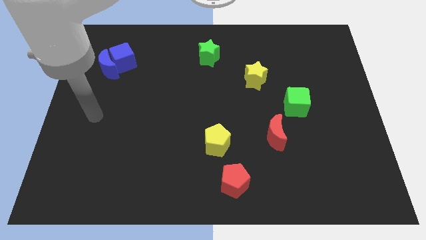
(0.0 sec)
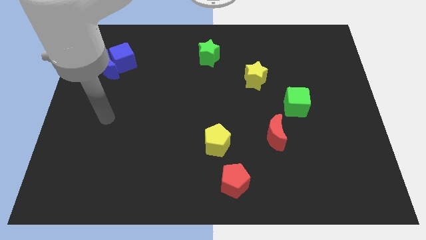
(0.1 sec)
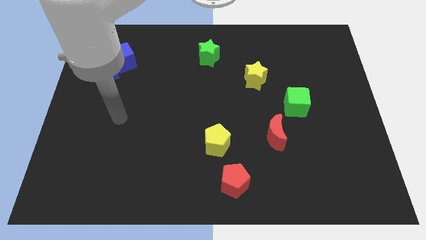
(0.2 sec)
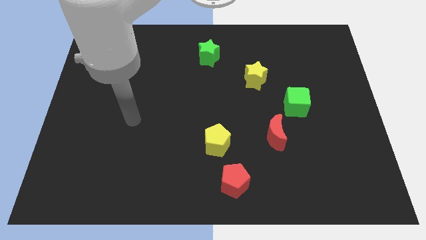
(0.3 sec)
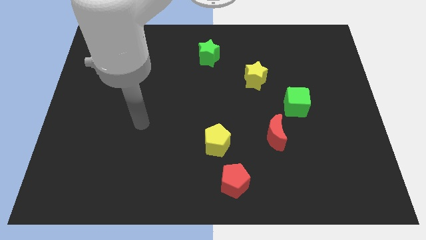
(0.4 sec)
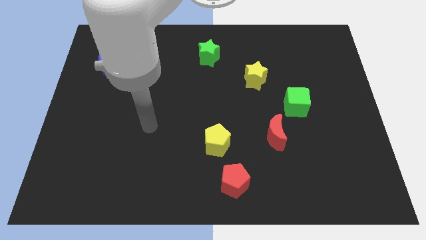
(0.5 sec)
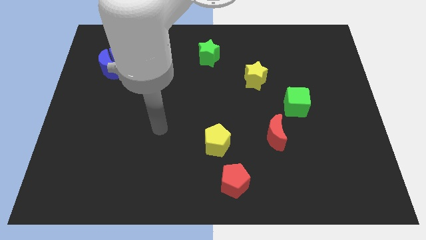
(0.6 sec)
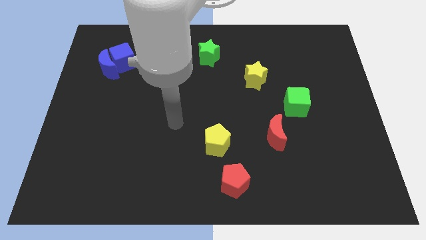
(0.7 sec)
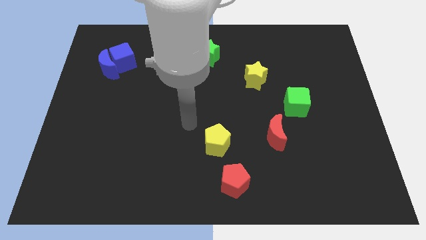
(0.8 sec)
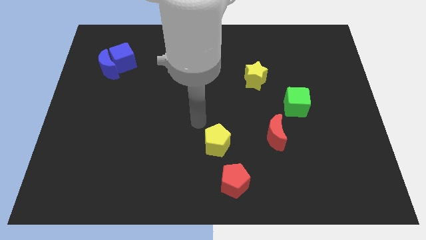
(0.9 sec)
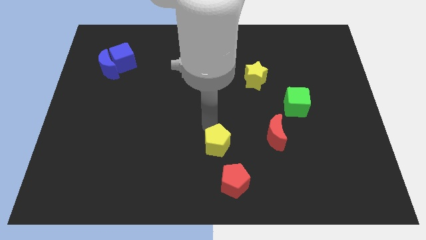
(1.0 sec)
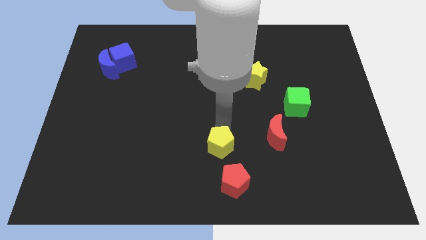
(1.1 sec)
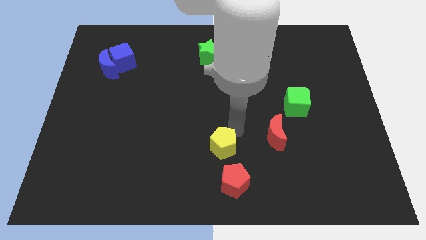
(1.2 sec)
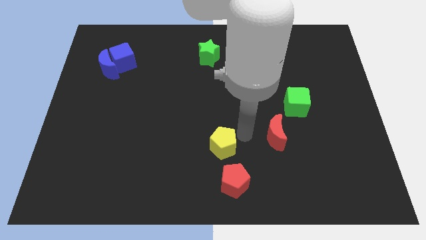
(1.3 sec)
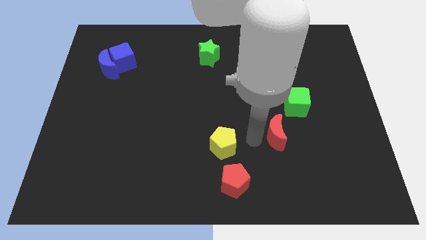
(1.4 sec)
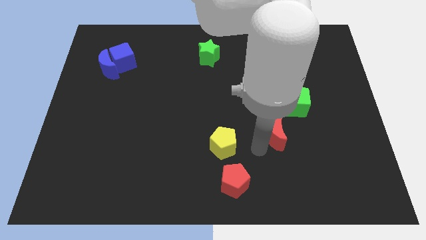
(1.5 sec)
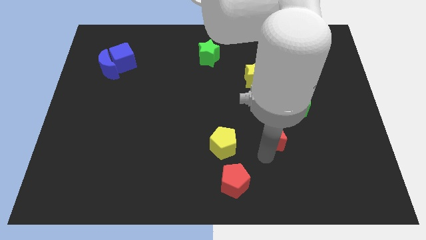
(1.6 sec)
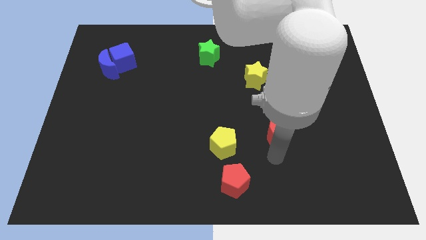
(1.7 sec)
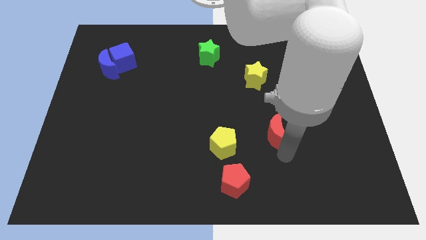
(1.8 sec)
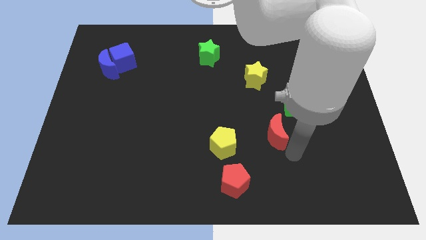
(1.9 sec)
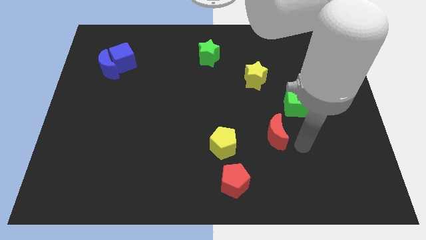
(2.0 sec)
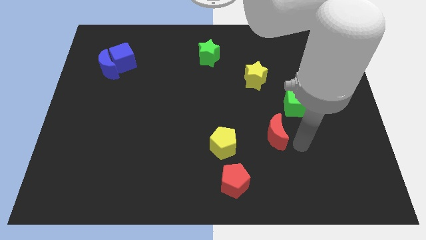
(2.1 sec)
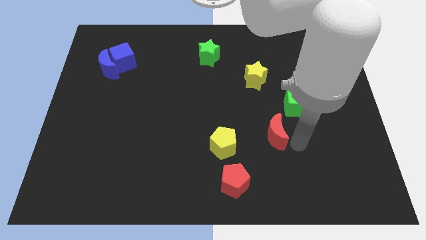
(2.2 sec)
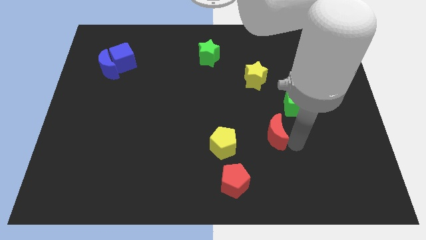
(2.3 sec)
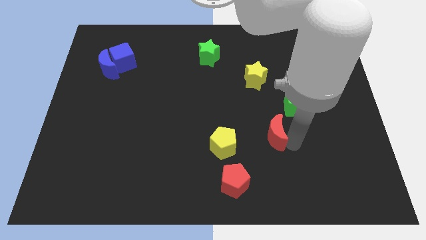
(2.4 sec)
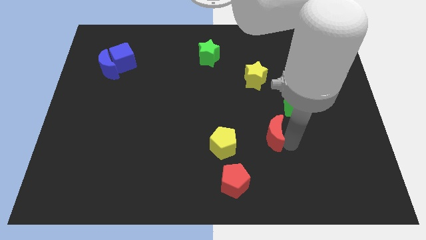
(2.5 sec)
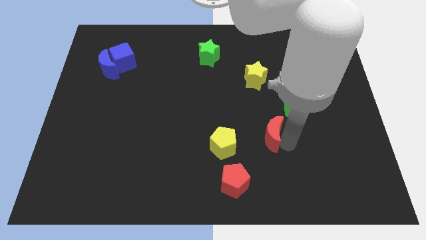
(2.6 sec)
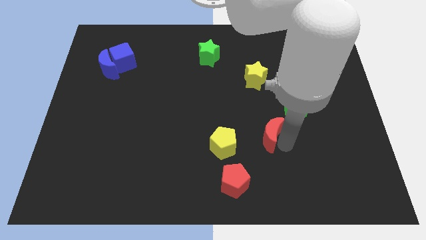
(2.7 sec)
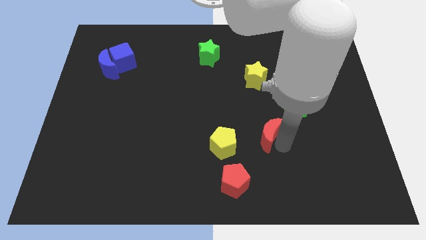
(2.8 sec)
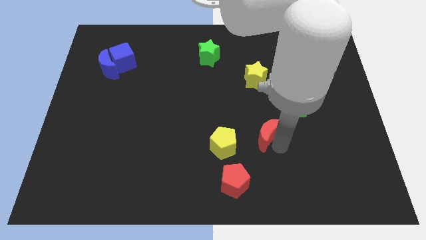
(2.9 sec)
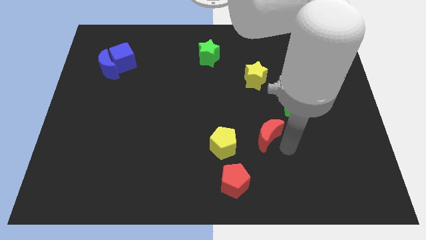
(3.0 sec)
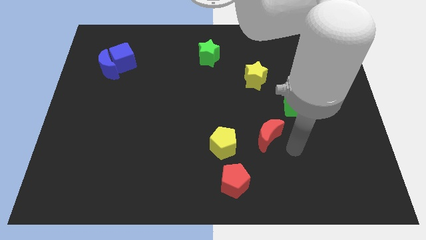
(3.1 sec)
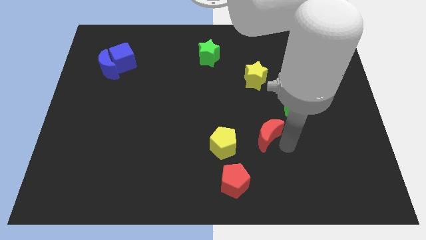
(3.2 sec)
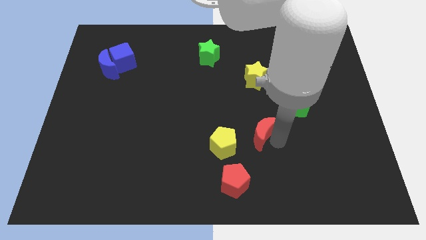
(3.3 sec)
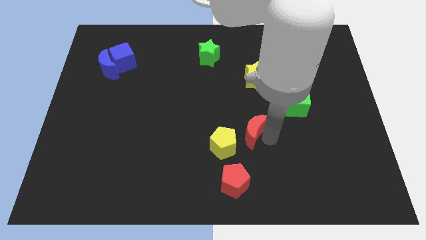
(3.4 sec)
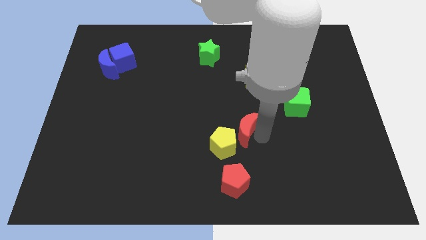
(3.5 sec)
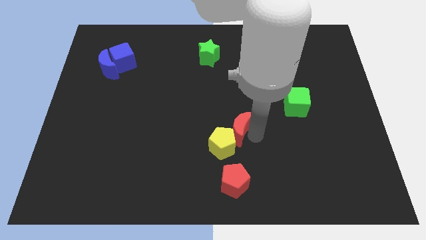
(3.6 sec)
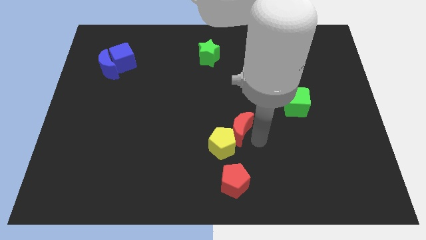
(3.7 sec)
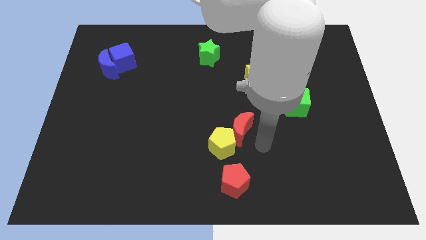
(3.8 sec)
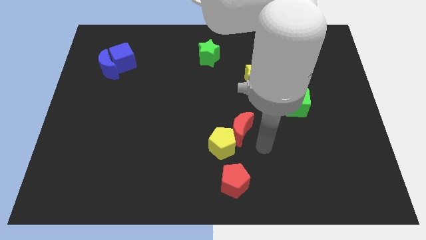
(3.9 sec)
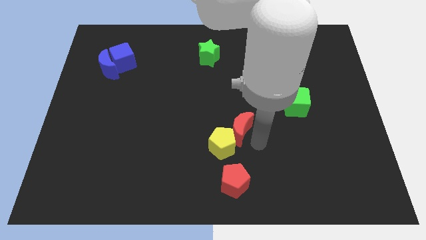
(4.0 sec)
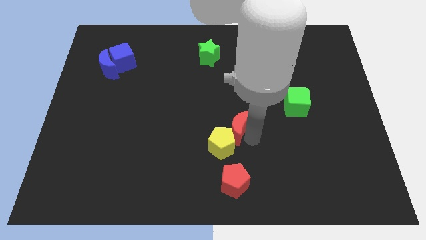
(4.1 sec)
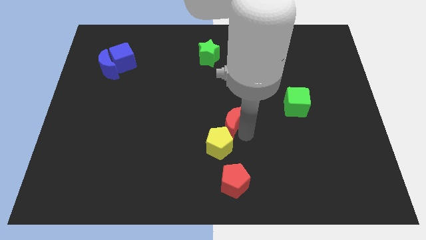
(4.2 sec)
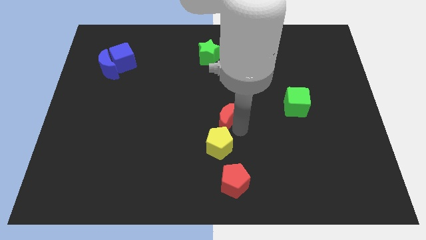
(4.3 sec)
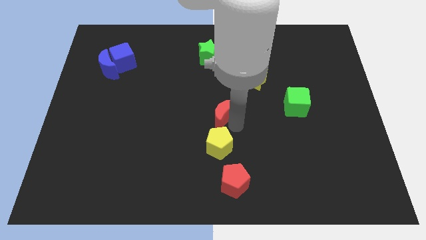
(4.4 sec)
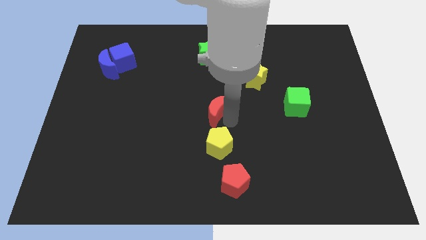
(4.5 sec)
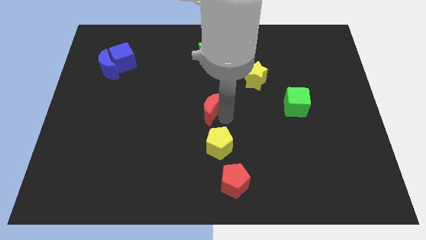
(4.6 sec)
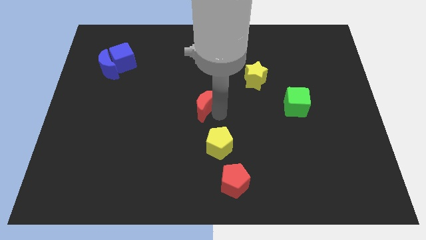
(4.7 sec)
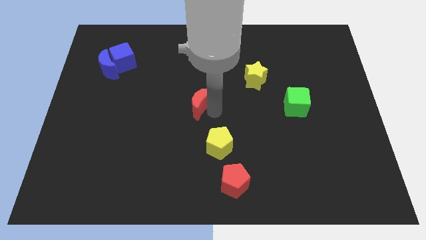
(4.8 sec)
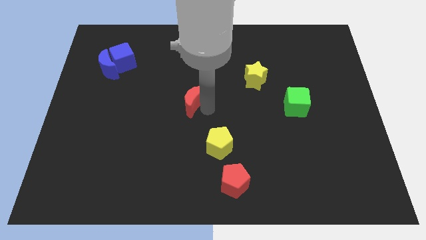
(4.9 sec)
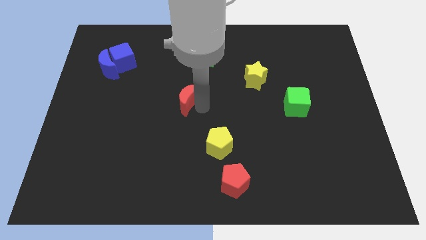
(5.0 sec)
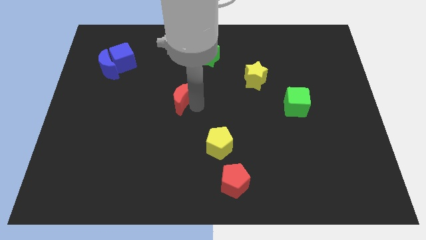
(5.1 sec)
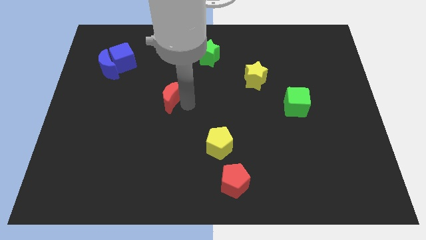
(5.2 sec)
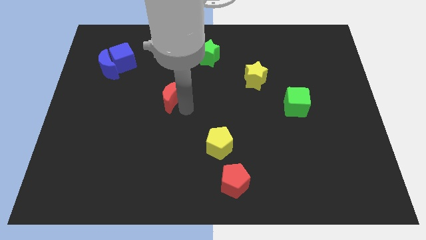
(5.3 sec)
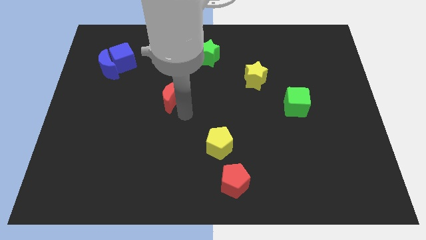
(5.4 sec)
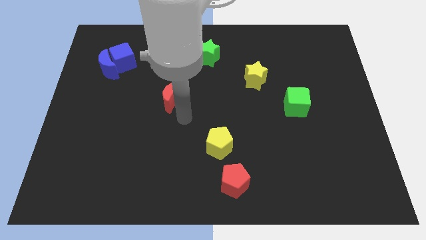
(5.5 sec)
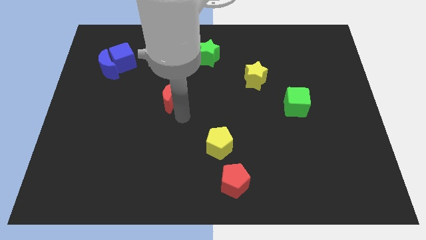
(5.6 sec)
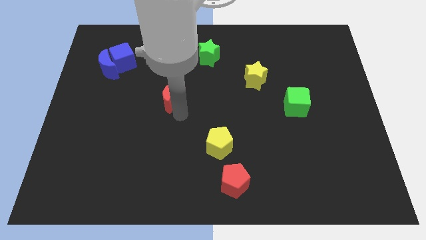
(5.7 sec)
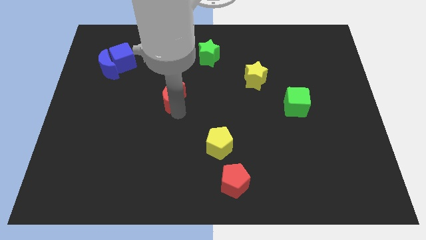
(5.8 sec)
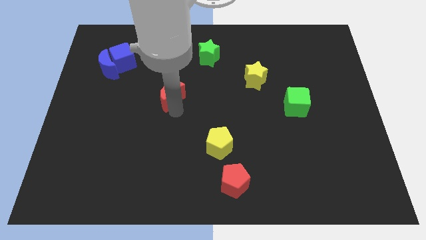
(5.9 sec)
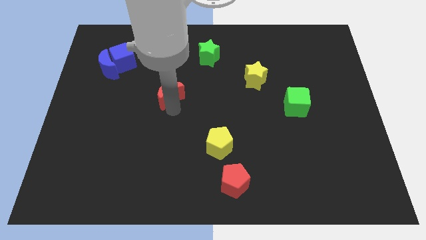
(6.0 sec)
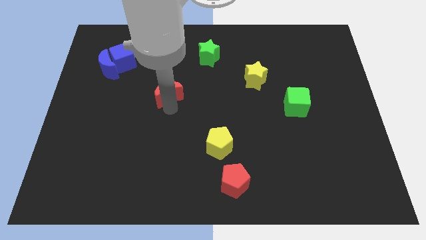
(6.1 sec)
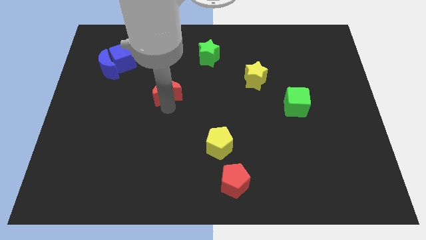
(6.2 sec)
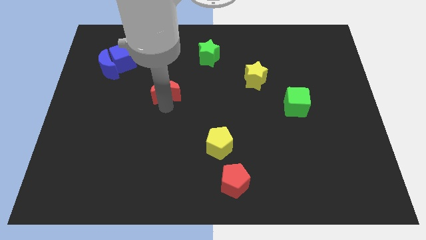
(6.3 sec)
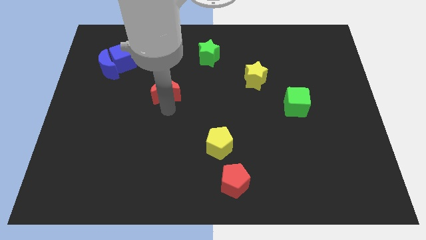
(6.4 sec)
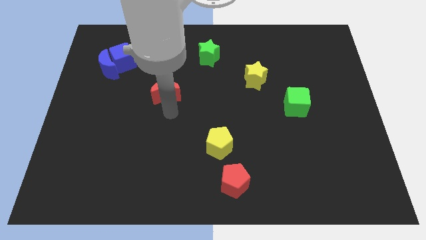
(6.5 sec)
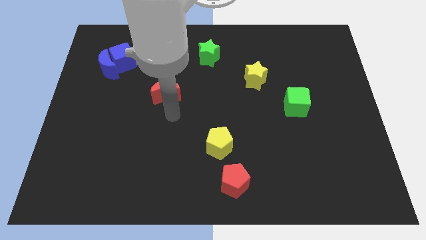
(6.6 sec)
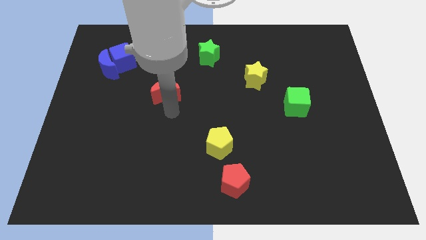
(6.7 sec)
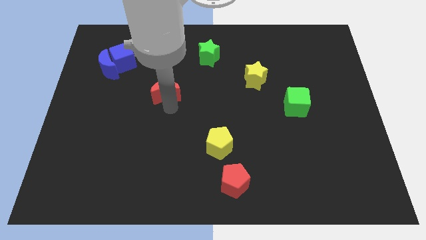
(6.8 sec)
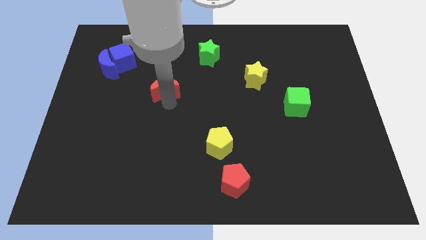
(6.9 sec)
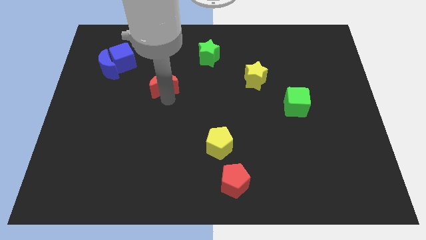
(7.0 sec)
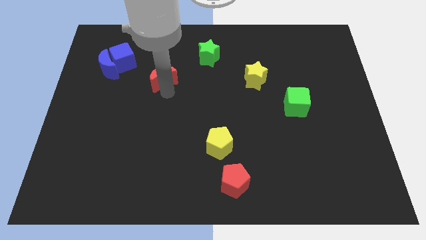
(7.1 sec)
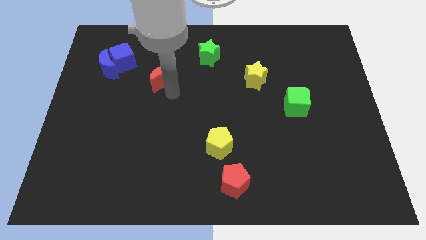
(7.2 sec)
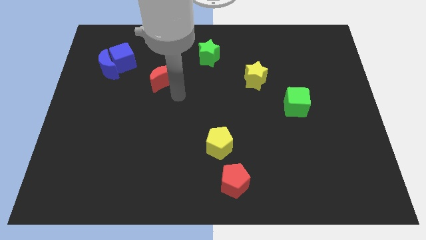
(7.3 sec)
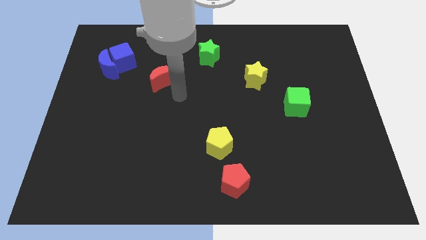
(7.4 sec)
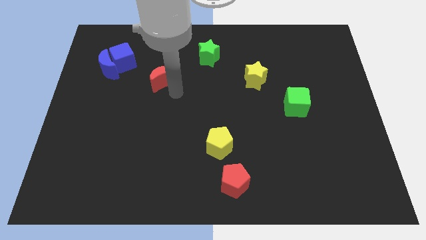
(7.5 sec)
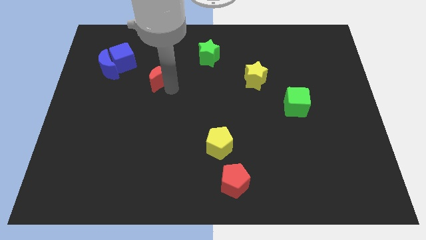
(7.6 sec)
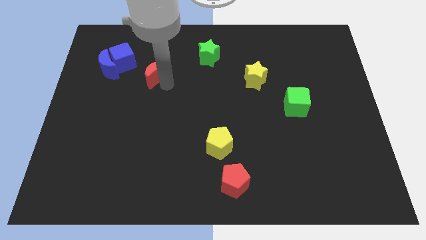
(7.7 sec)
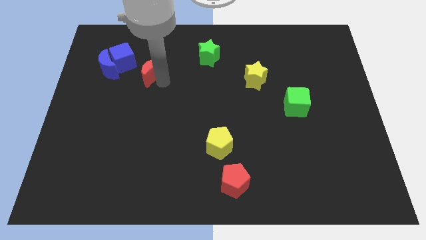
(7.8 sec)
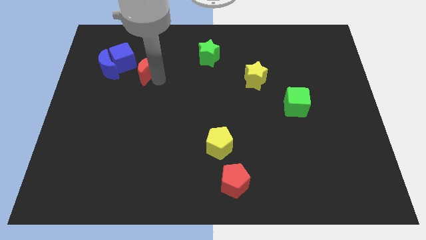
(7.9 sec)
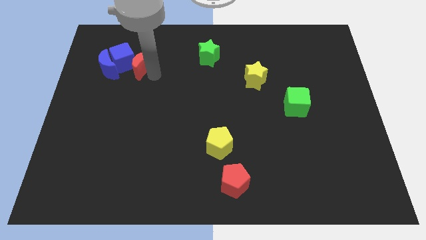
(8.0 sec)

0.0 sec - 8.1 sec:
slide the red moon close to the blue cube
